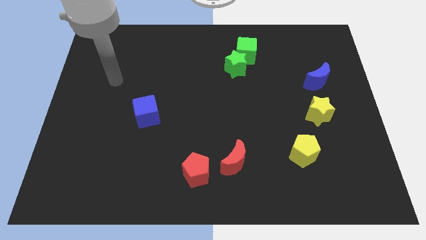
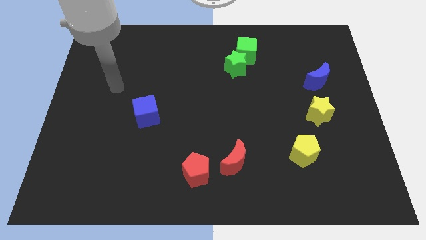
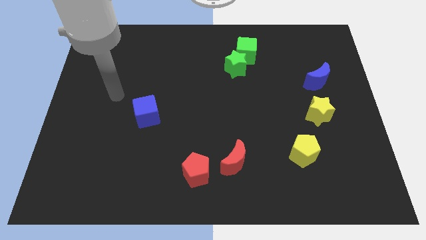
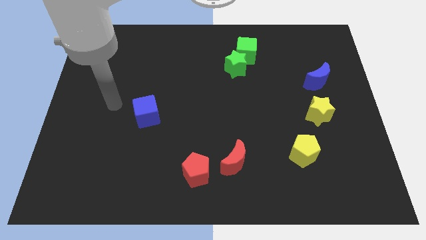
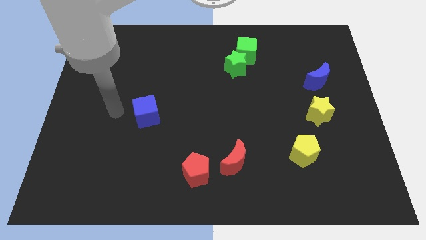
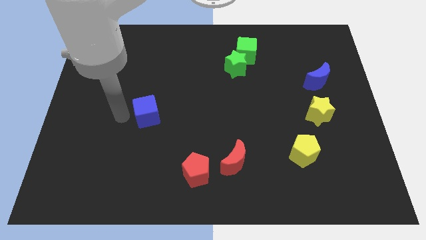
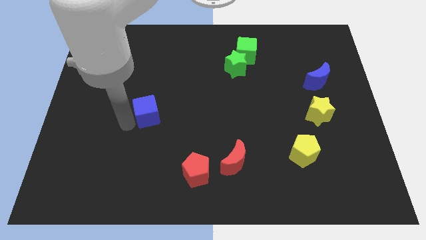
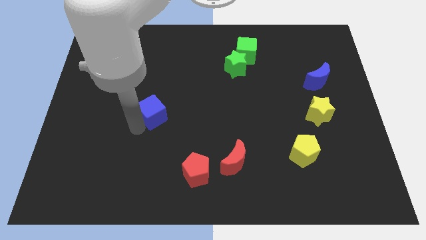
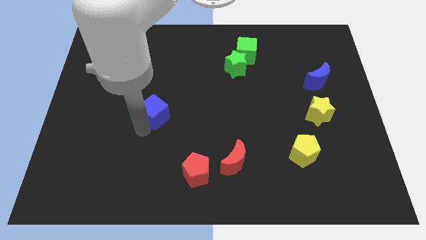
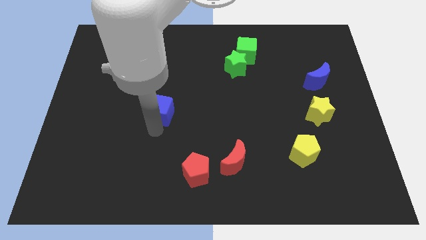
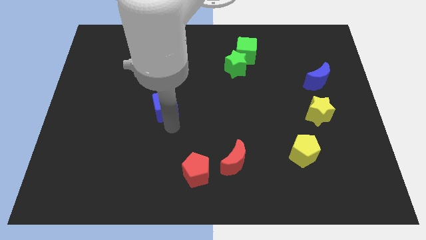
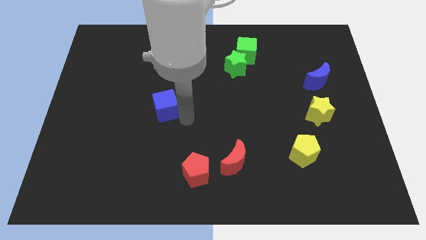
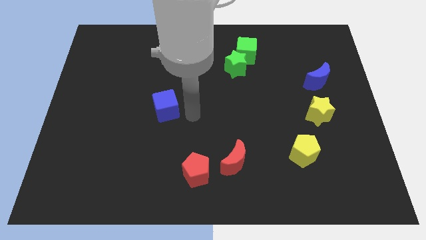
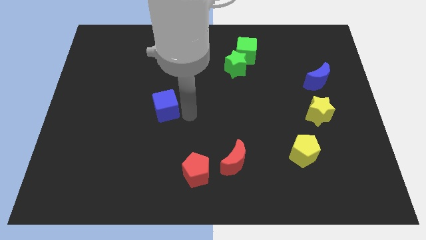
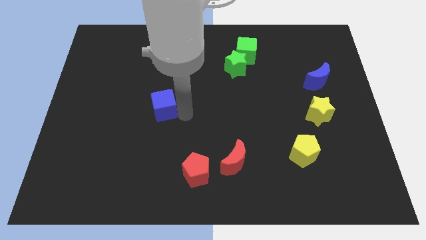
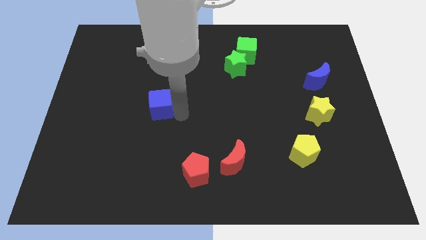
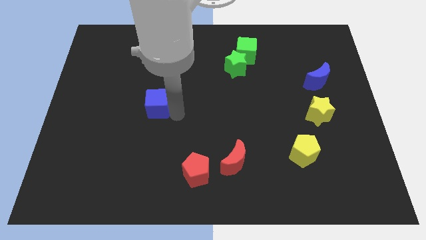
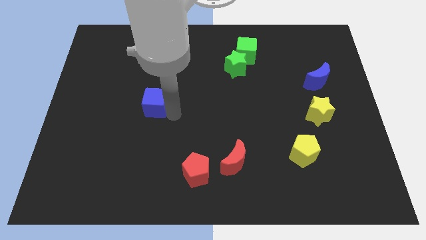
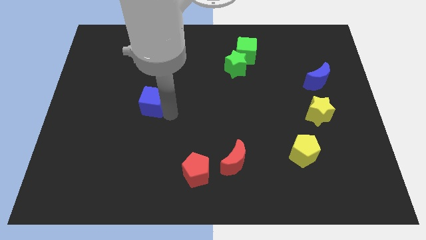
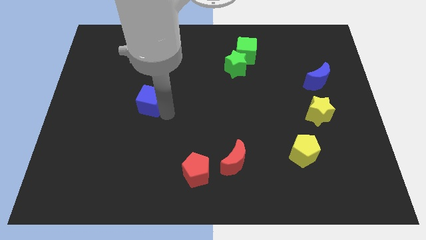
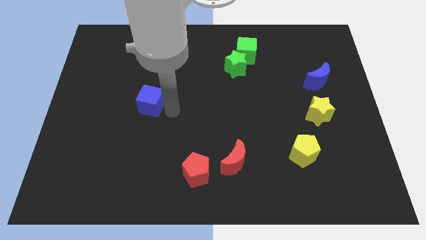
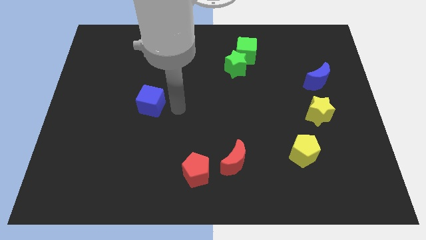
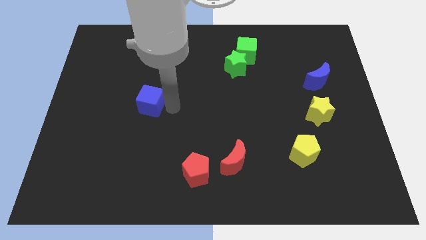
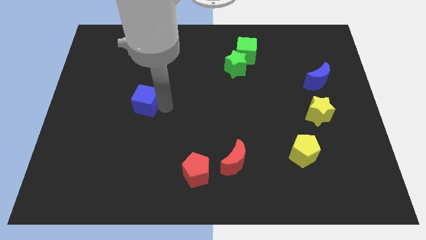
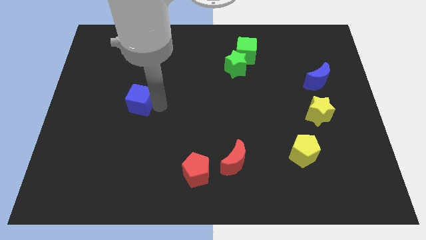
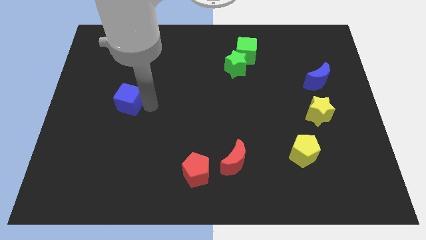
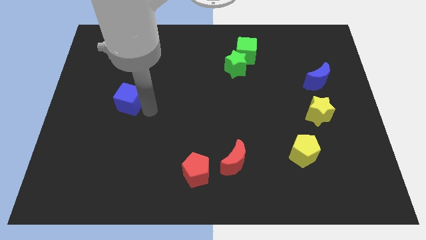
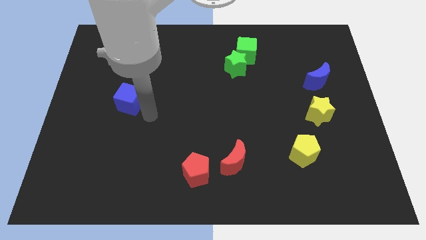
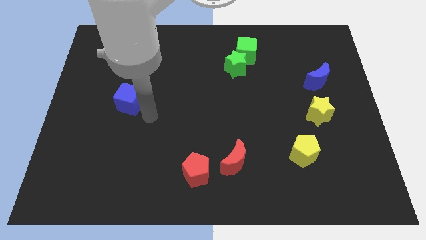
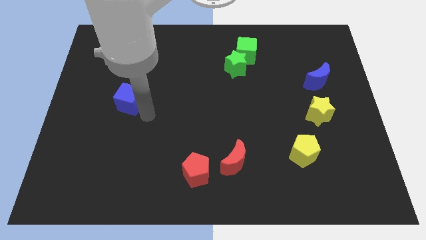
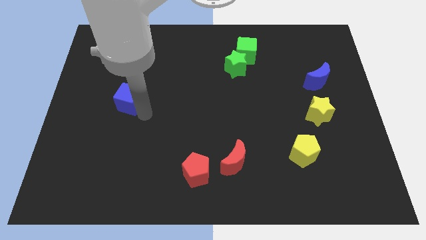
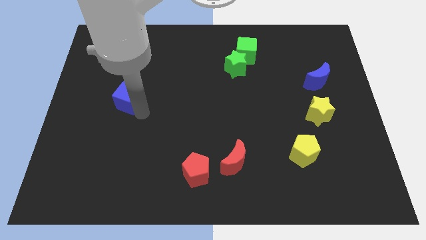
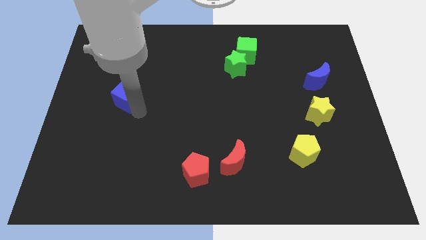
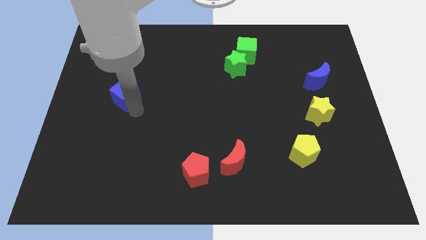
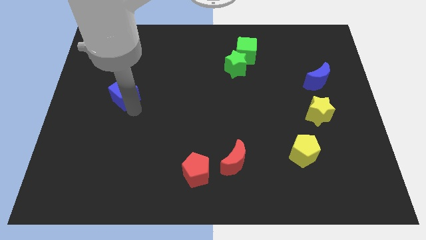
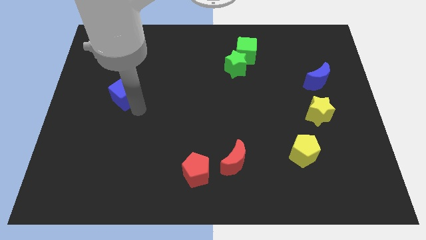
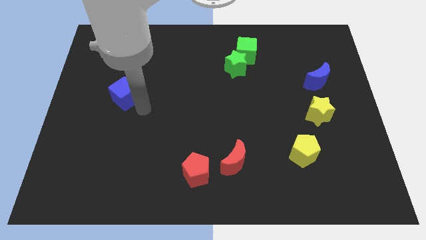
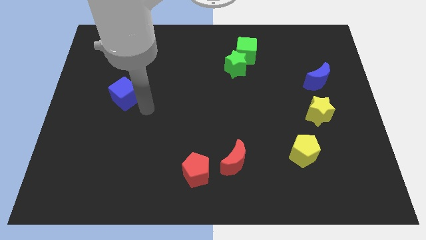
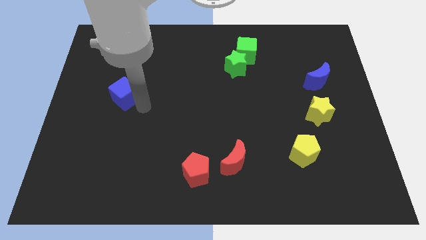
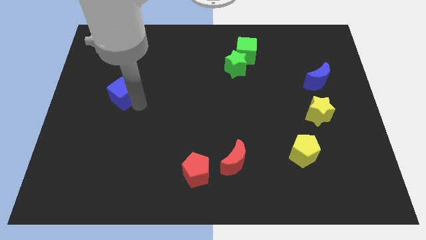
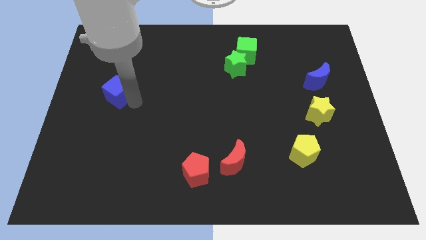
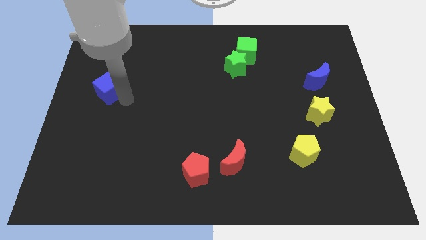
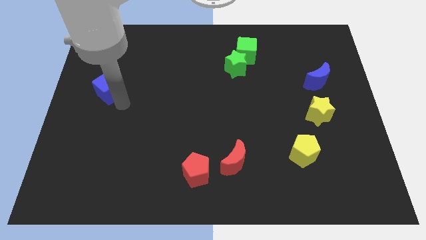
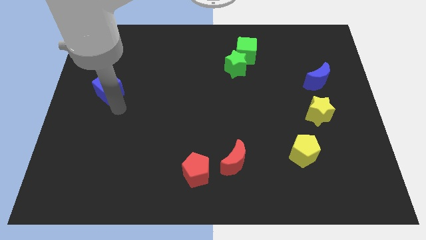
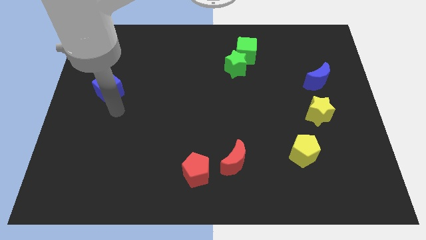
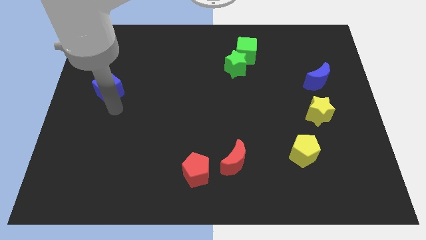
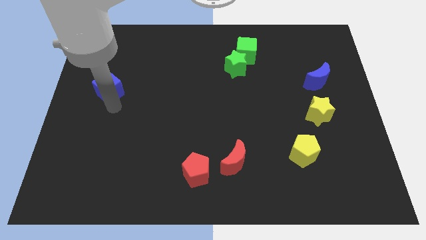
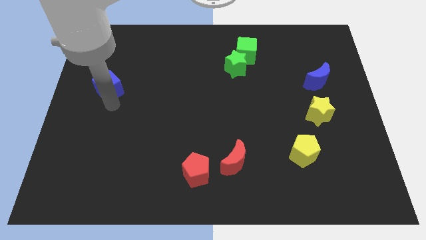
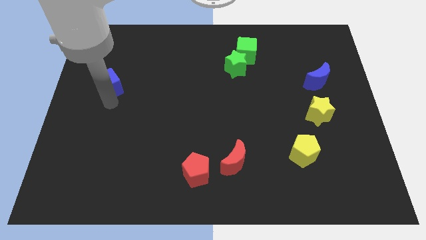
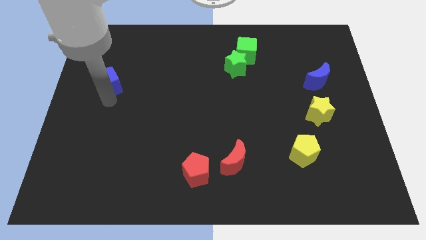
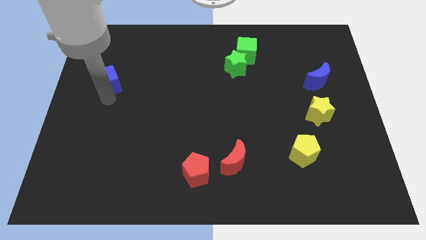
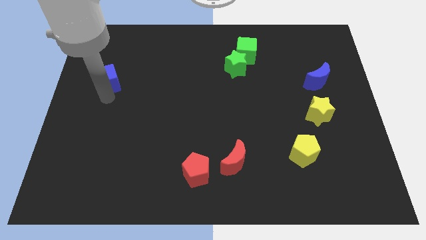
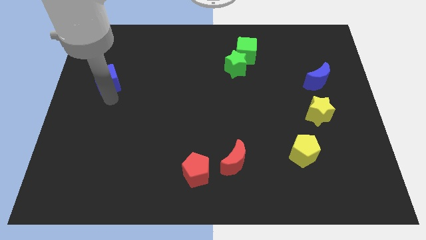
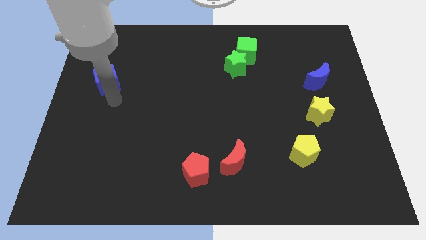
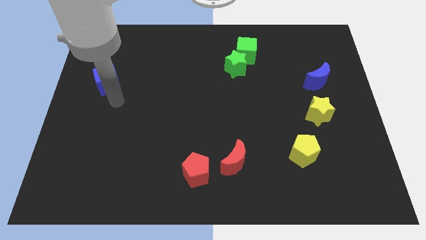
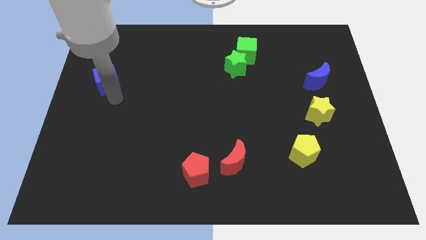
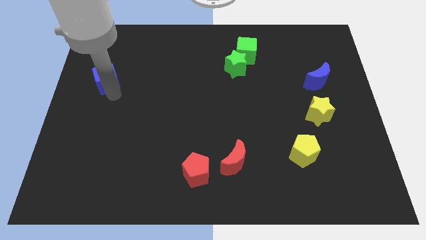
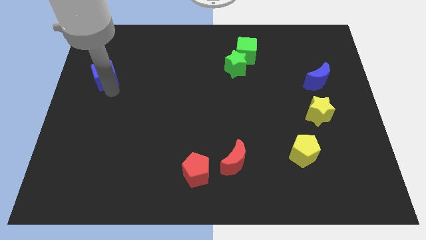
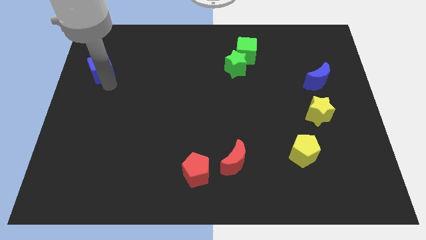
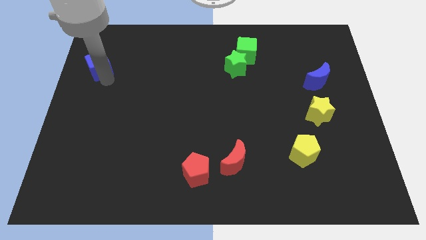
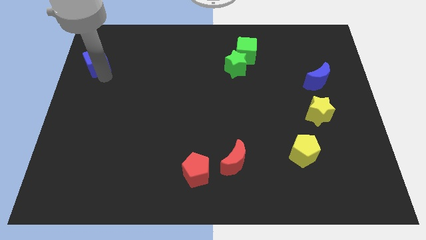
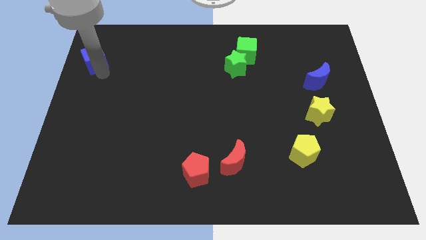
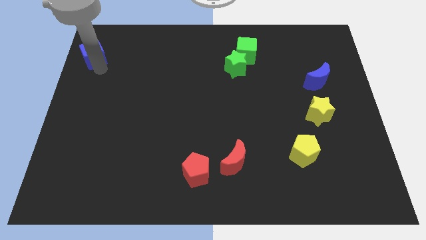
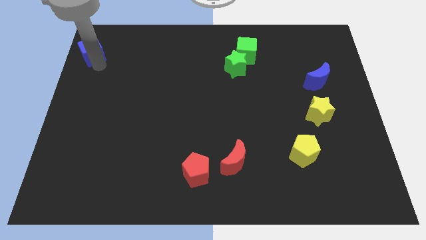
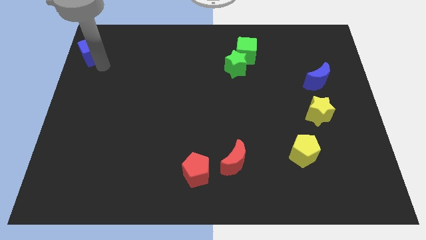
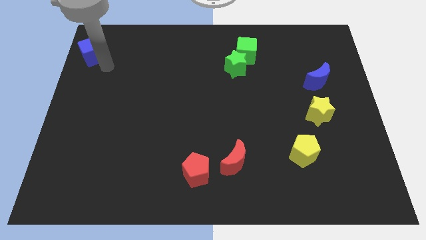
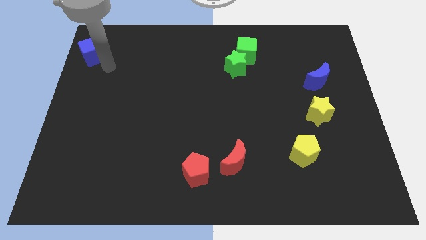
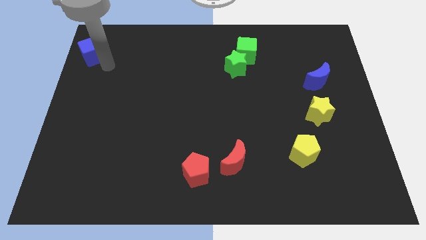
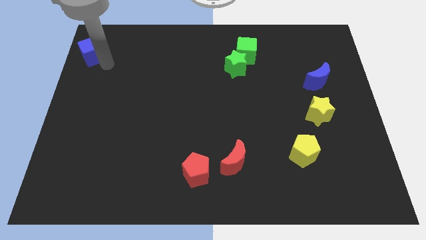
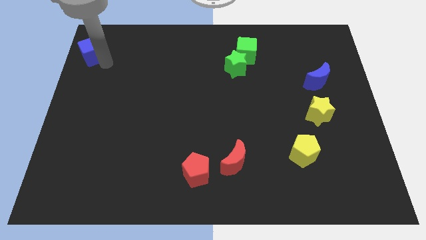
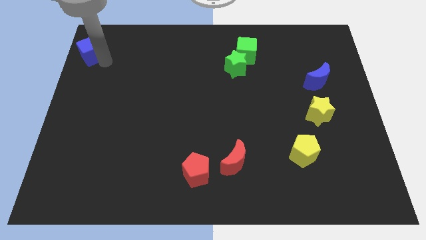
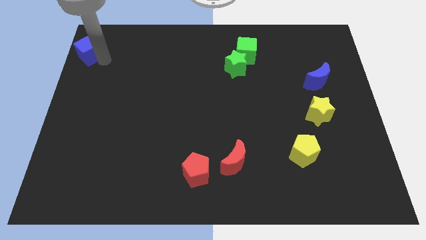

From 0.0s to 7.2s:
put the blue cube to the top left
